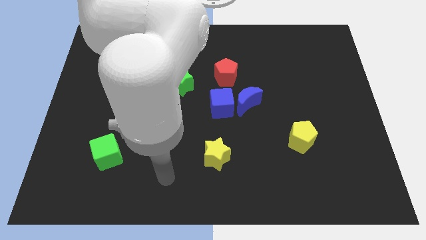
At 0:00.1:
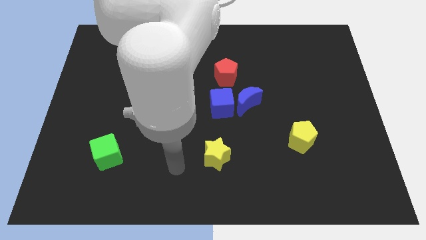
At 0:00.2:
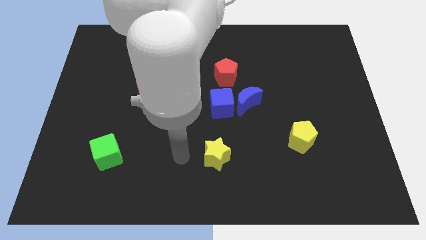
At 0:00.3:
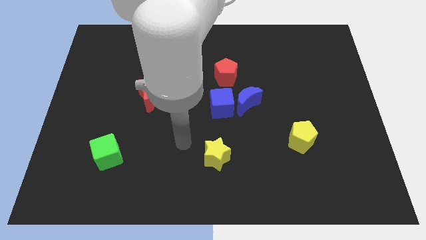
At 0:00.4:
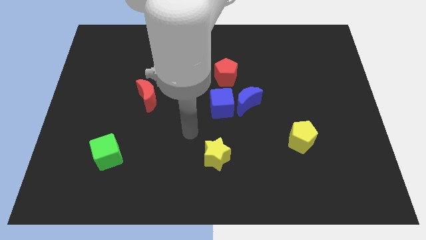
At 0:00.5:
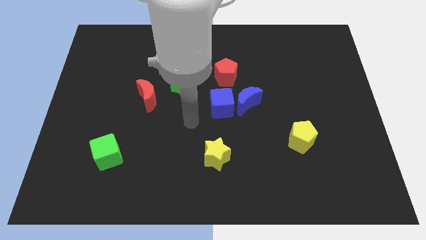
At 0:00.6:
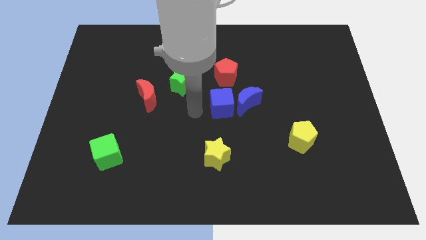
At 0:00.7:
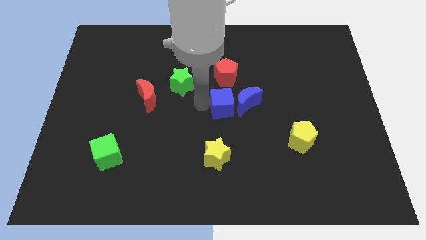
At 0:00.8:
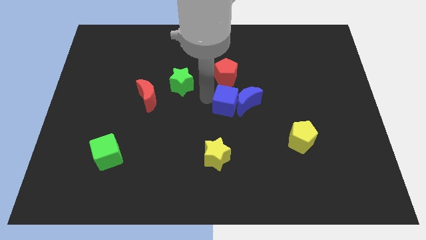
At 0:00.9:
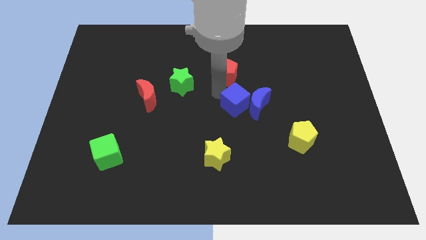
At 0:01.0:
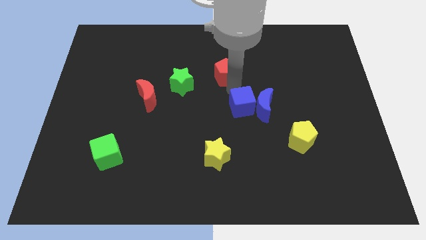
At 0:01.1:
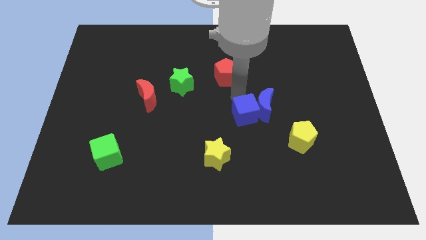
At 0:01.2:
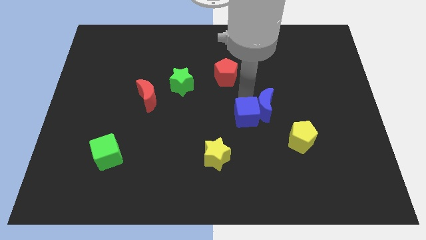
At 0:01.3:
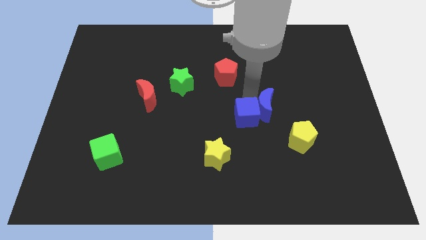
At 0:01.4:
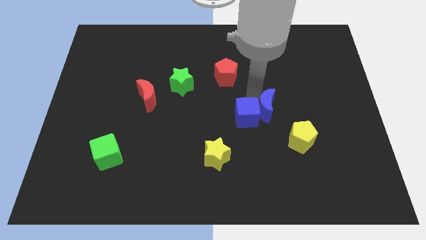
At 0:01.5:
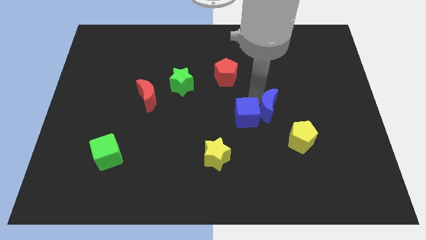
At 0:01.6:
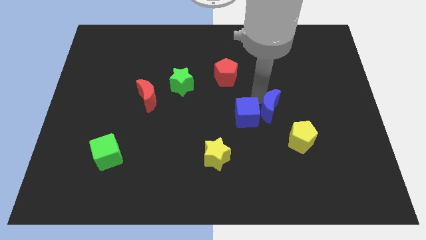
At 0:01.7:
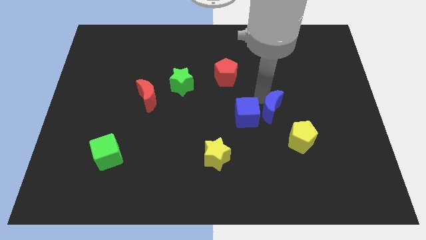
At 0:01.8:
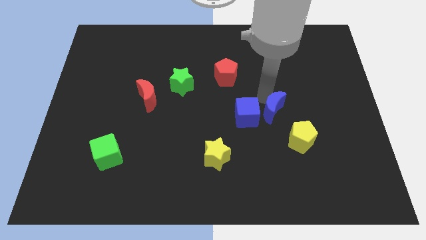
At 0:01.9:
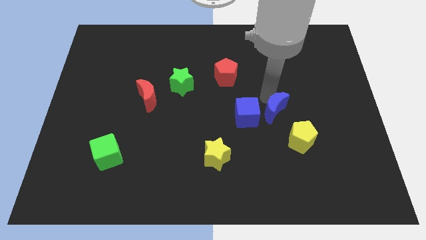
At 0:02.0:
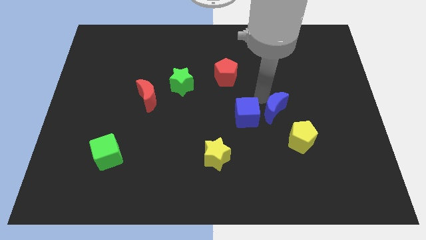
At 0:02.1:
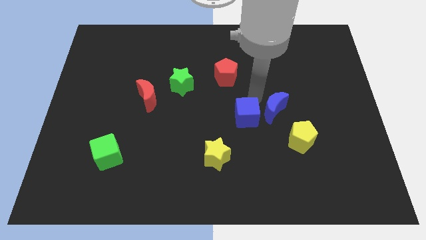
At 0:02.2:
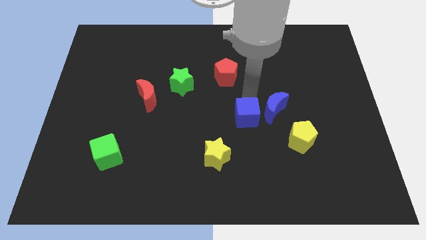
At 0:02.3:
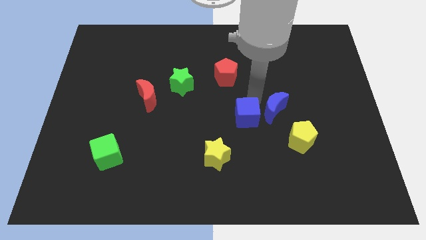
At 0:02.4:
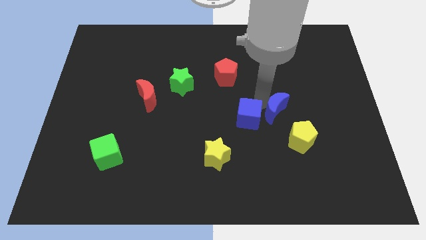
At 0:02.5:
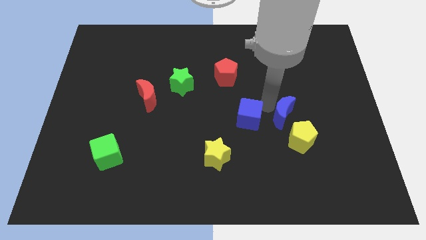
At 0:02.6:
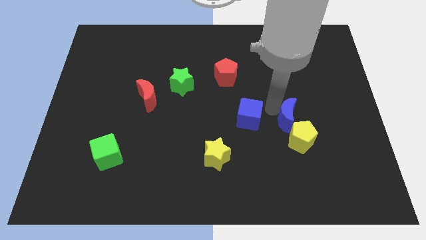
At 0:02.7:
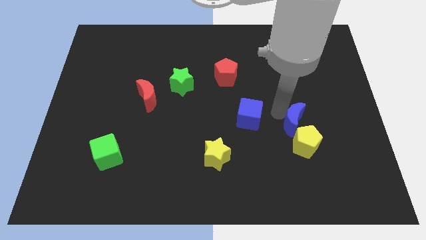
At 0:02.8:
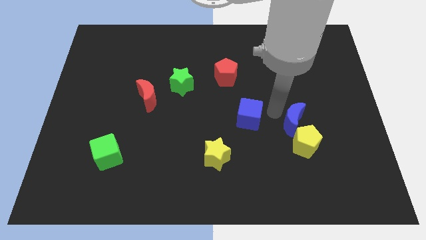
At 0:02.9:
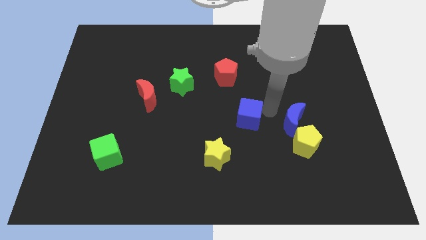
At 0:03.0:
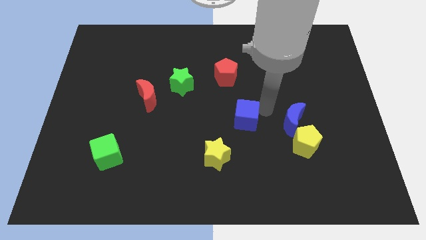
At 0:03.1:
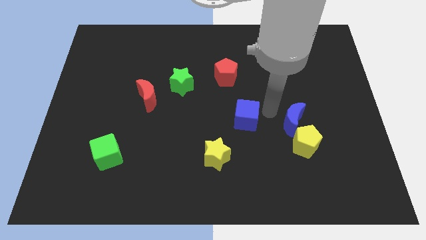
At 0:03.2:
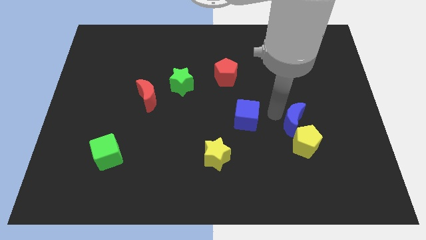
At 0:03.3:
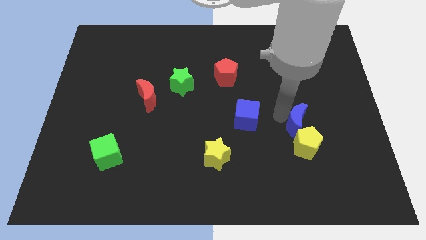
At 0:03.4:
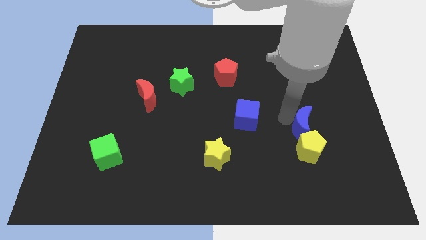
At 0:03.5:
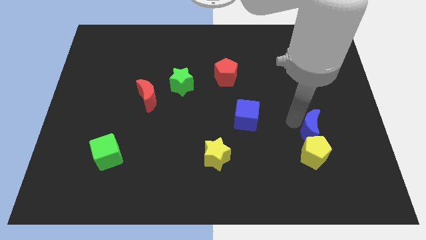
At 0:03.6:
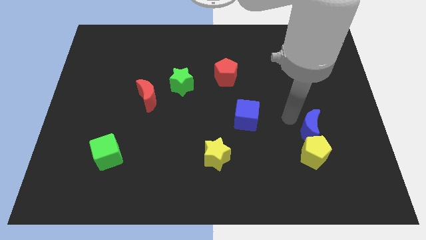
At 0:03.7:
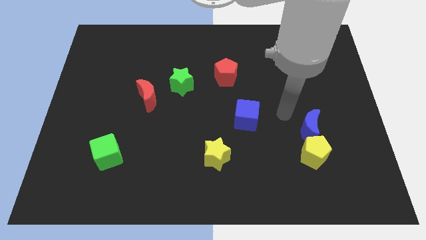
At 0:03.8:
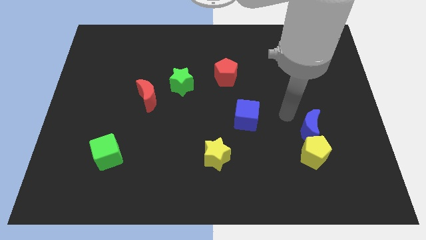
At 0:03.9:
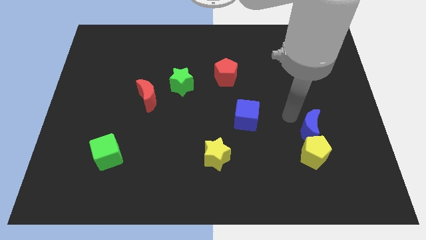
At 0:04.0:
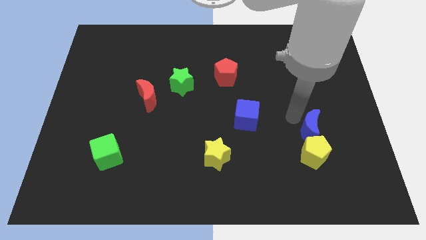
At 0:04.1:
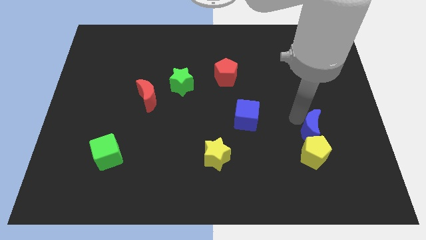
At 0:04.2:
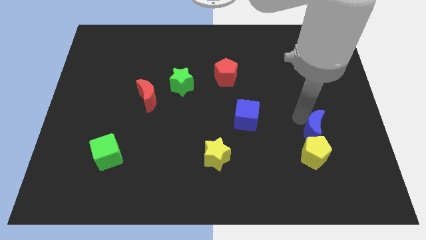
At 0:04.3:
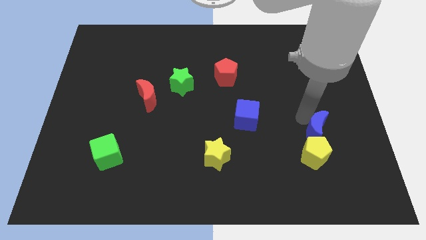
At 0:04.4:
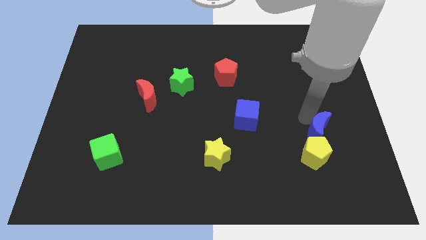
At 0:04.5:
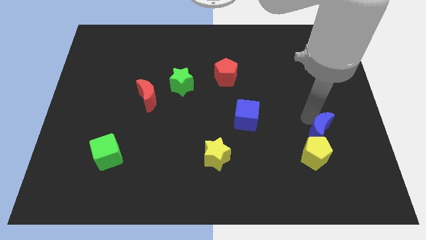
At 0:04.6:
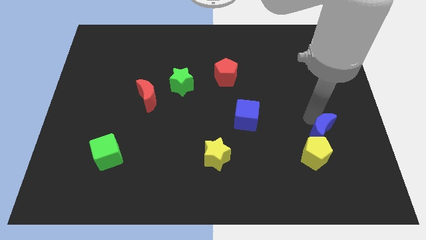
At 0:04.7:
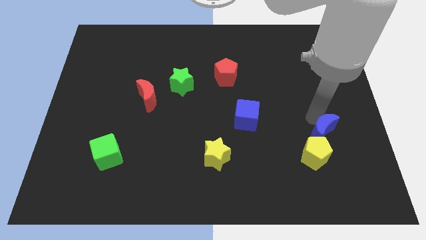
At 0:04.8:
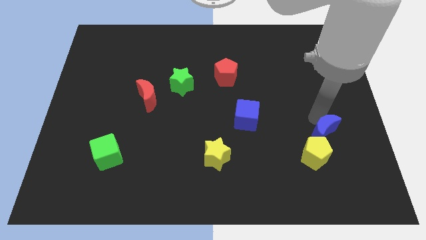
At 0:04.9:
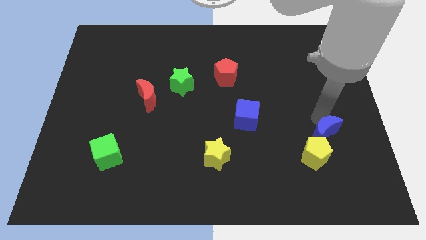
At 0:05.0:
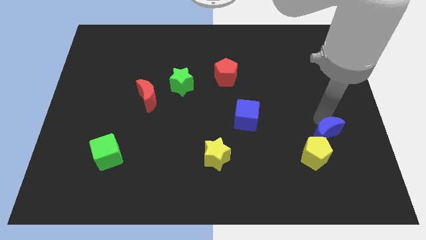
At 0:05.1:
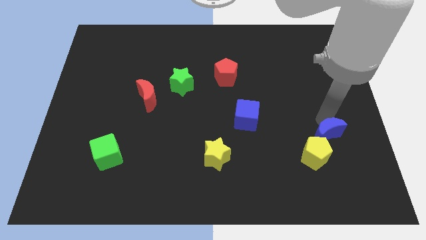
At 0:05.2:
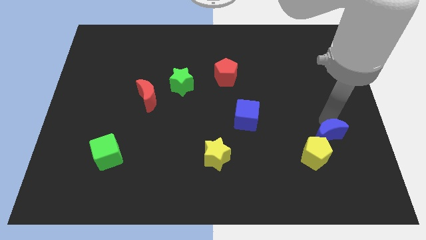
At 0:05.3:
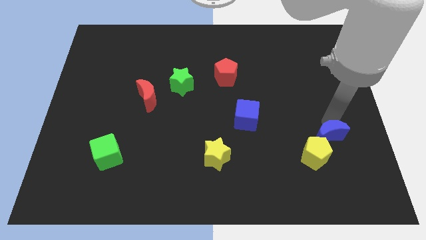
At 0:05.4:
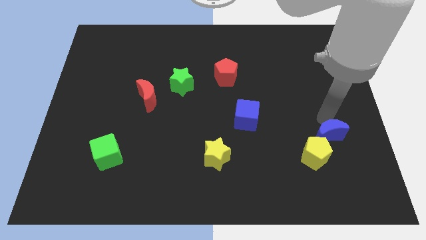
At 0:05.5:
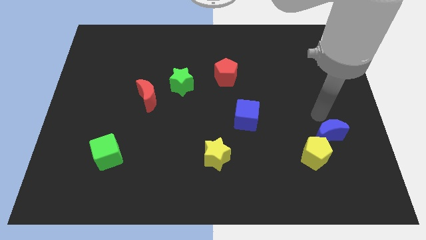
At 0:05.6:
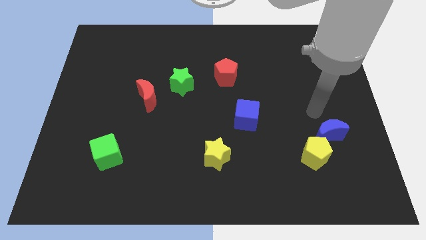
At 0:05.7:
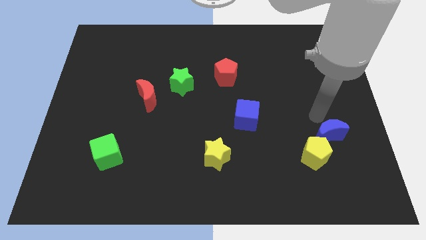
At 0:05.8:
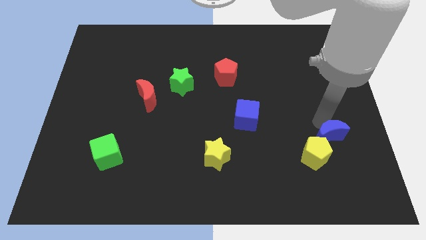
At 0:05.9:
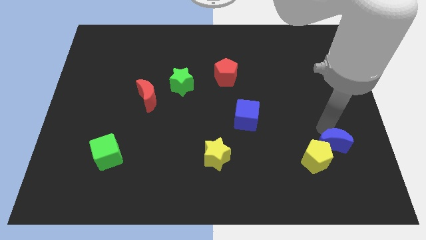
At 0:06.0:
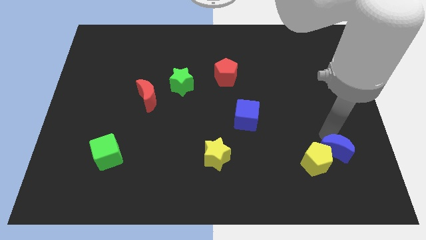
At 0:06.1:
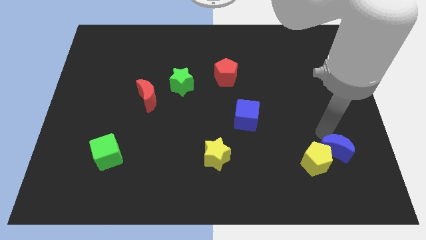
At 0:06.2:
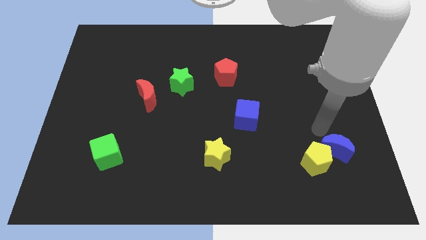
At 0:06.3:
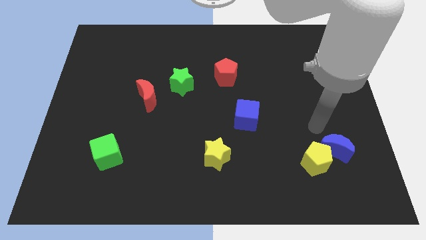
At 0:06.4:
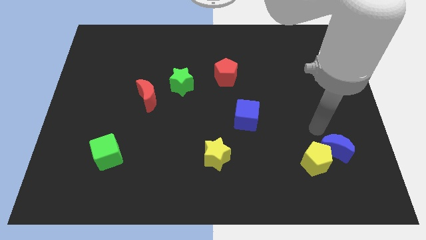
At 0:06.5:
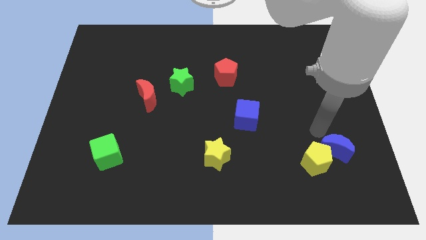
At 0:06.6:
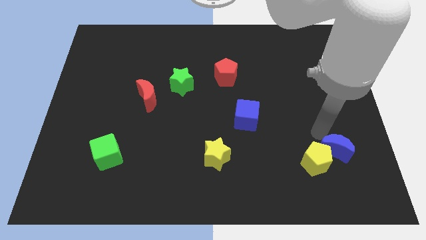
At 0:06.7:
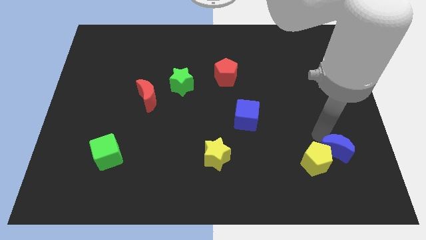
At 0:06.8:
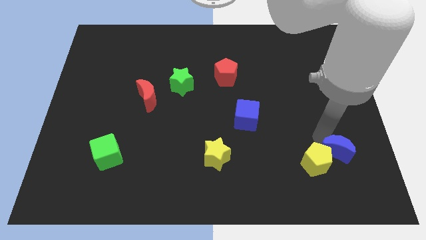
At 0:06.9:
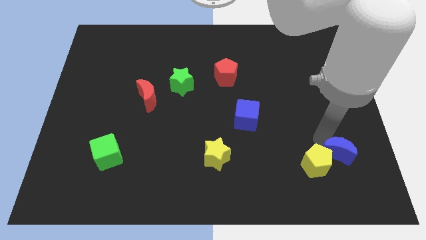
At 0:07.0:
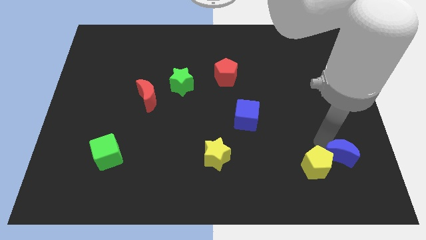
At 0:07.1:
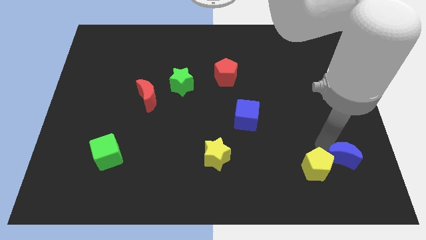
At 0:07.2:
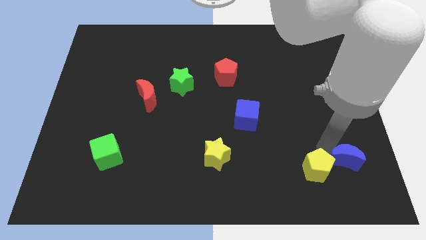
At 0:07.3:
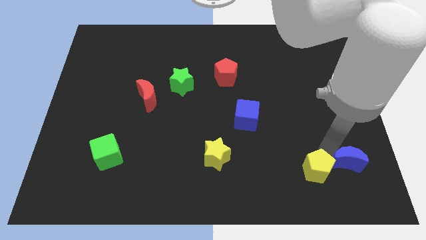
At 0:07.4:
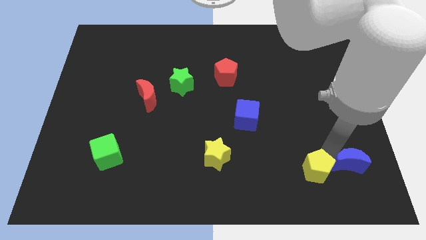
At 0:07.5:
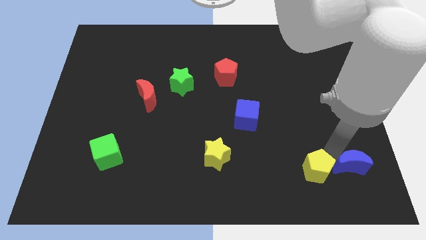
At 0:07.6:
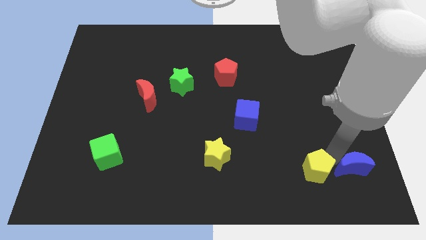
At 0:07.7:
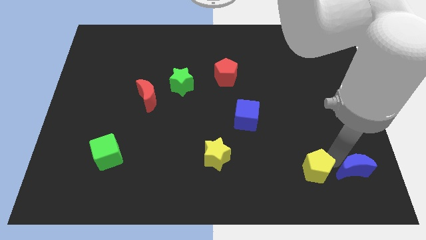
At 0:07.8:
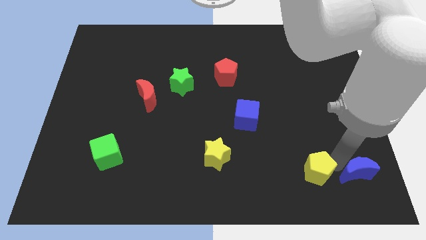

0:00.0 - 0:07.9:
put the blue moon to the lower right corner
